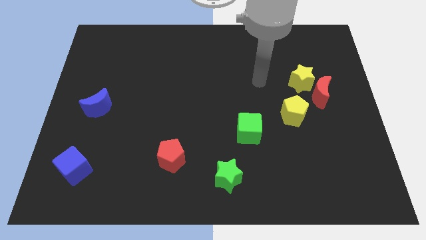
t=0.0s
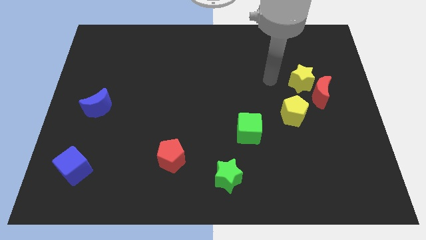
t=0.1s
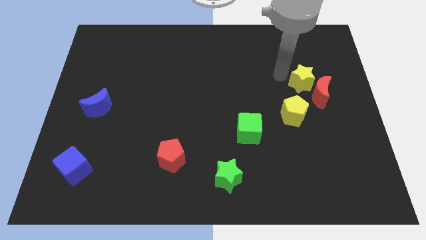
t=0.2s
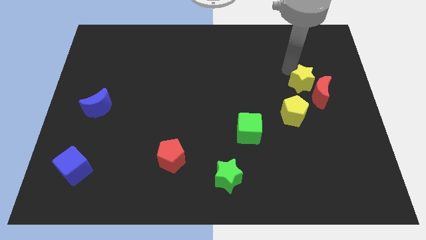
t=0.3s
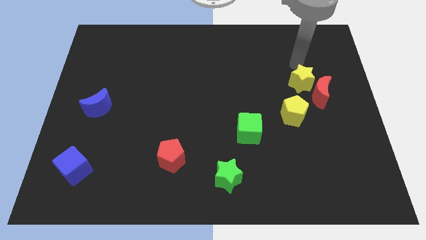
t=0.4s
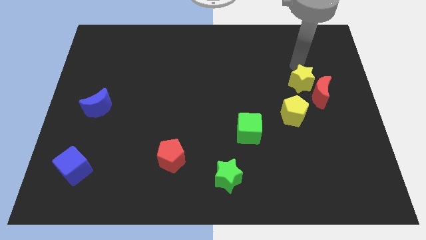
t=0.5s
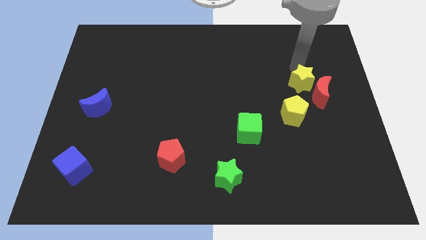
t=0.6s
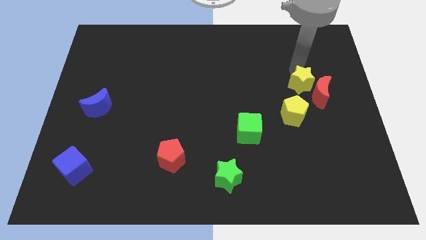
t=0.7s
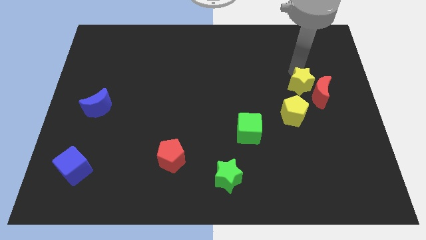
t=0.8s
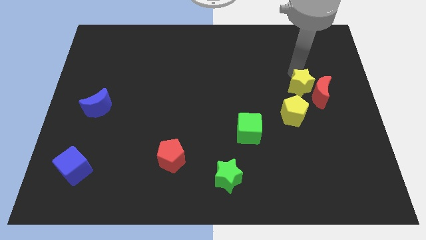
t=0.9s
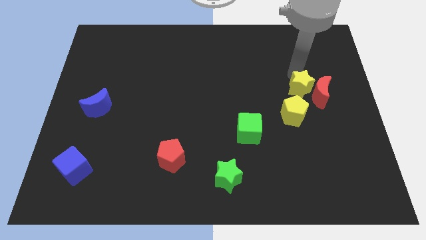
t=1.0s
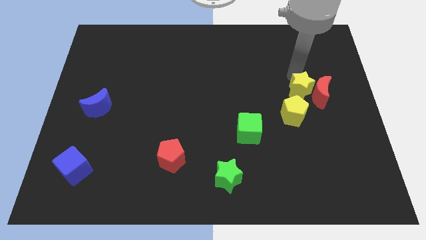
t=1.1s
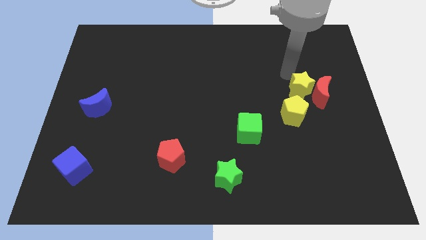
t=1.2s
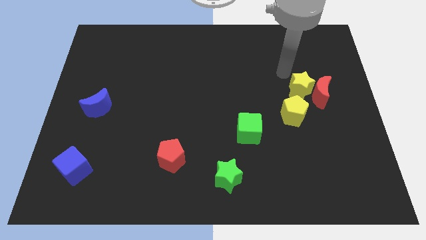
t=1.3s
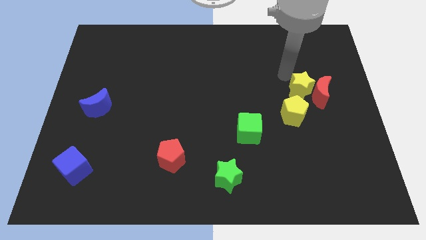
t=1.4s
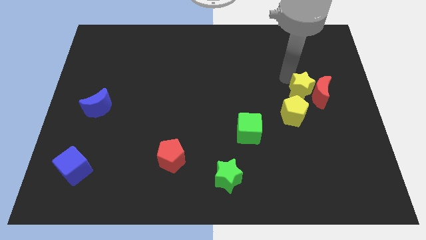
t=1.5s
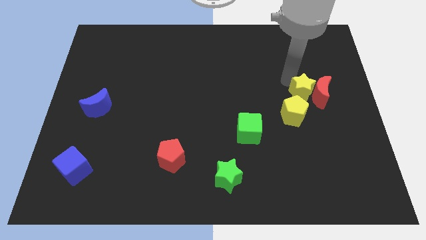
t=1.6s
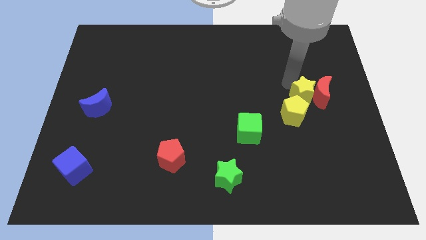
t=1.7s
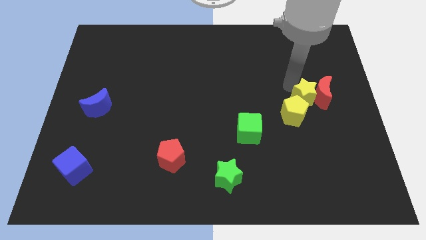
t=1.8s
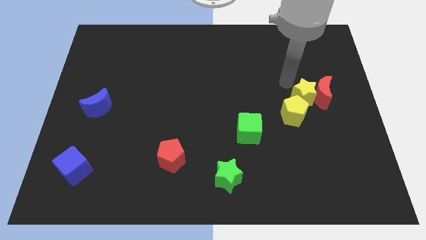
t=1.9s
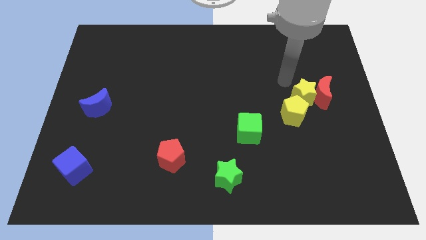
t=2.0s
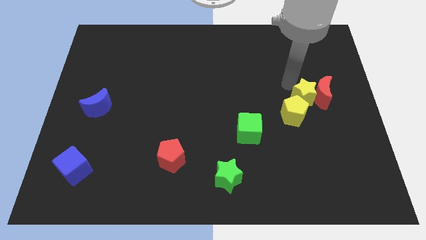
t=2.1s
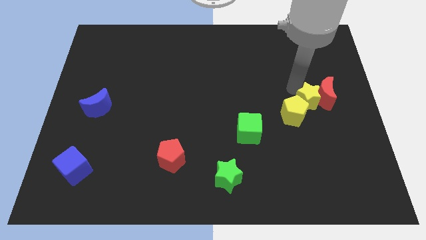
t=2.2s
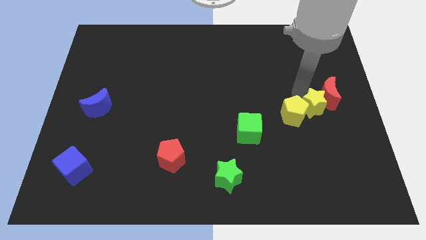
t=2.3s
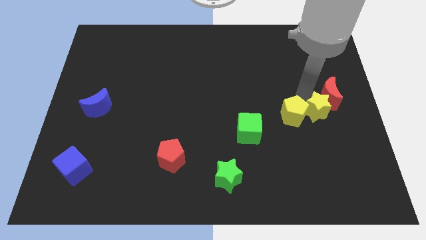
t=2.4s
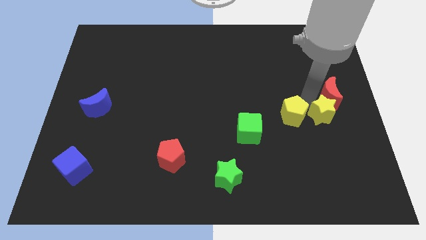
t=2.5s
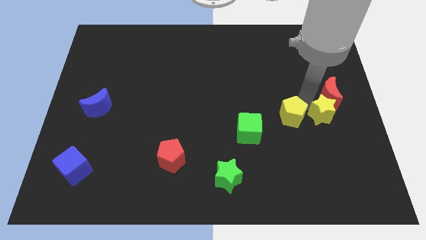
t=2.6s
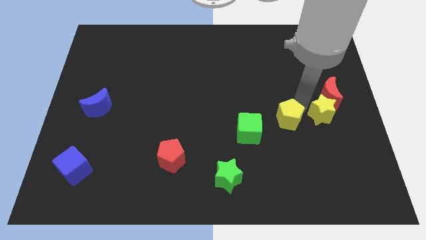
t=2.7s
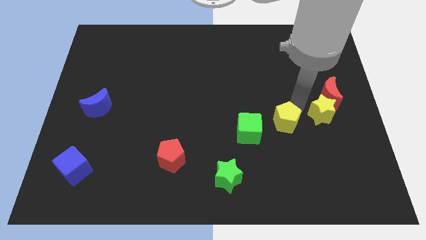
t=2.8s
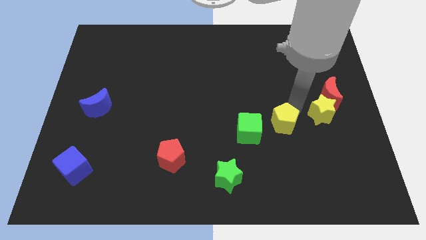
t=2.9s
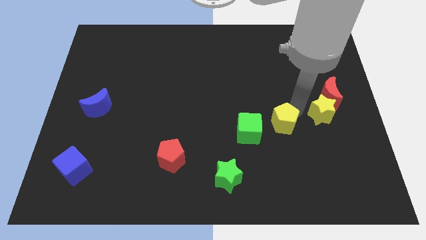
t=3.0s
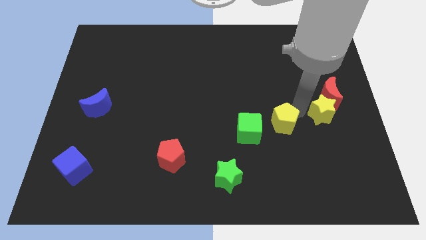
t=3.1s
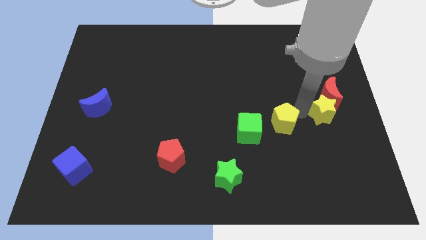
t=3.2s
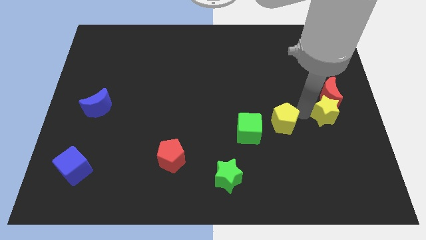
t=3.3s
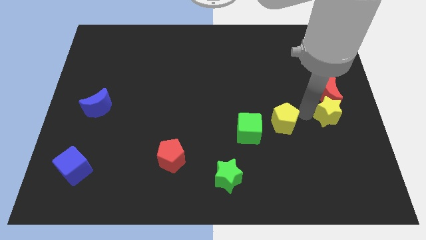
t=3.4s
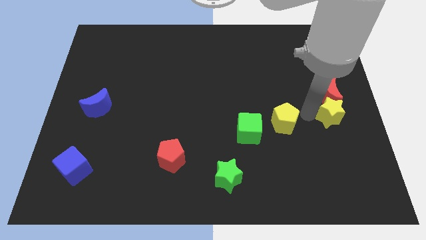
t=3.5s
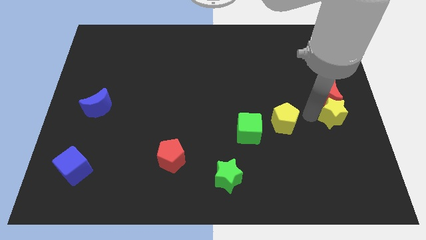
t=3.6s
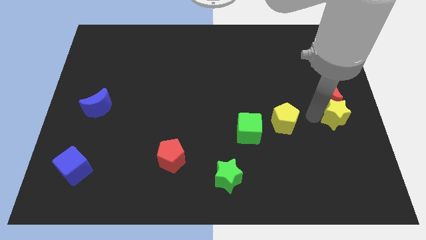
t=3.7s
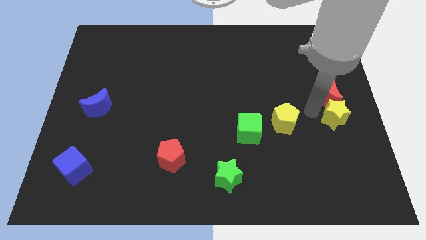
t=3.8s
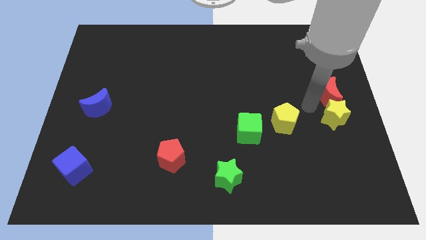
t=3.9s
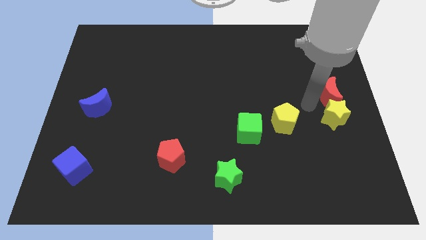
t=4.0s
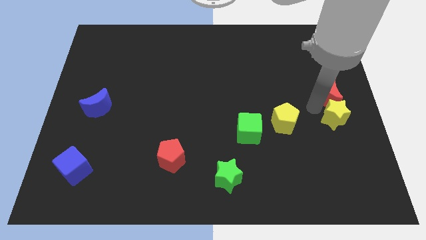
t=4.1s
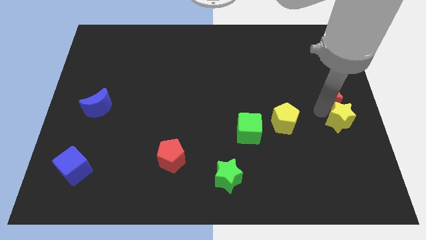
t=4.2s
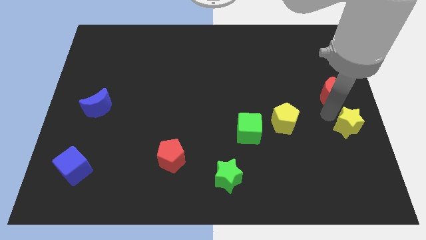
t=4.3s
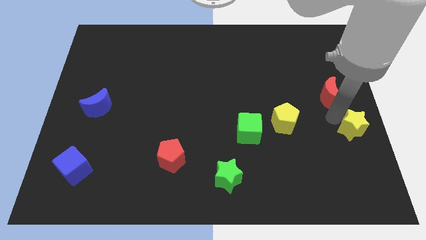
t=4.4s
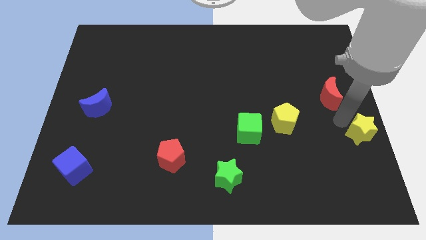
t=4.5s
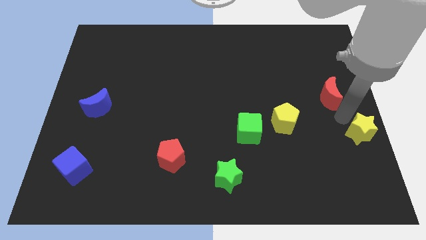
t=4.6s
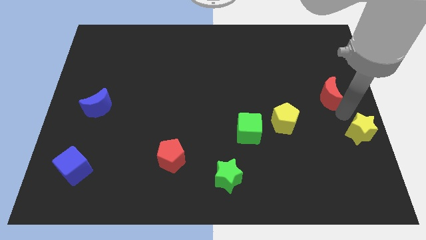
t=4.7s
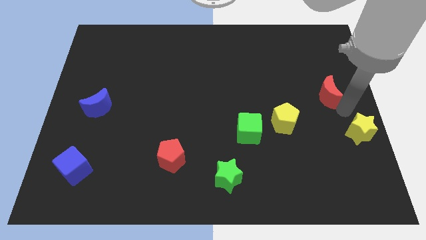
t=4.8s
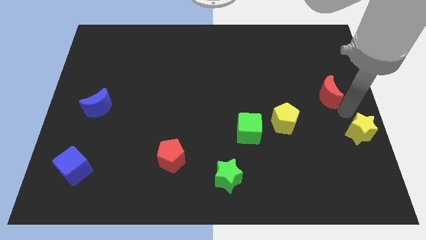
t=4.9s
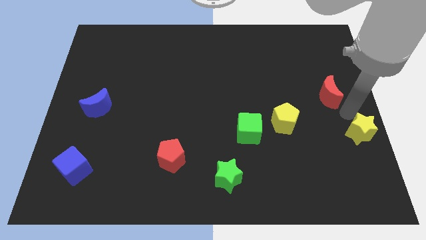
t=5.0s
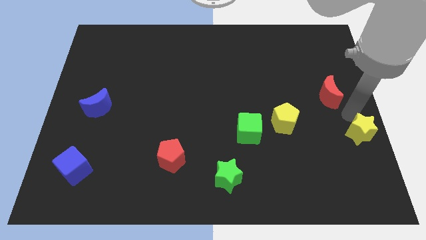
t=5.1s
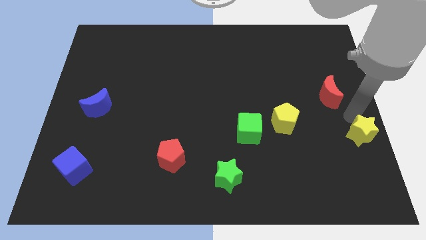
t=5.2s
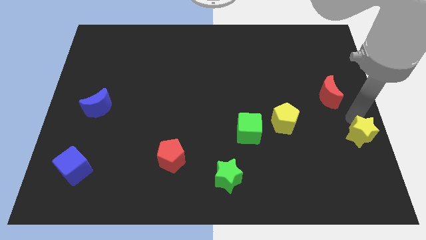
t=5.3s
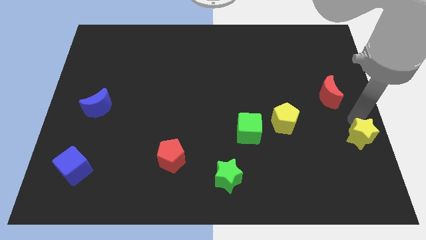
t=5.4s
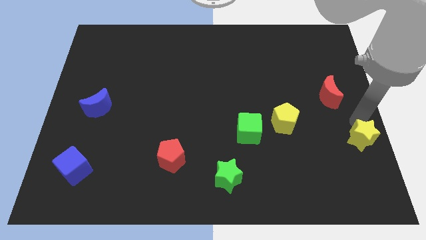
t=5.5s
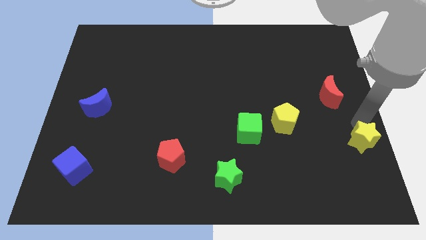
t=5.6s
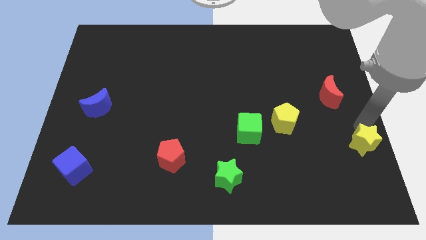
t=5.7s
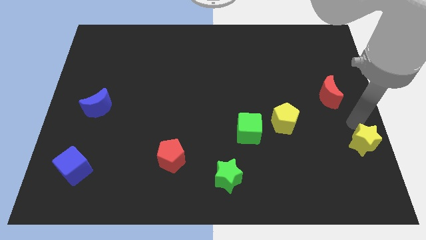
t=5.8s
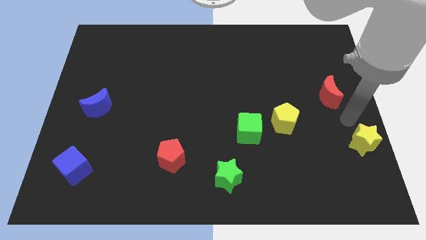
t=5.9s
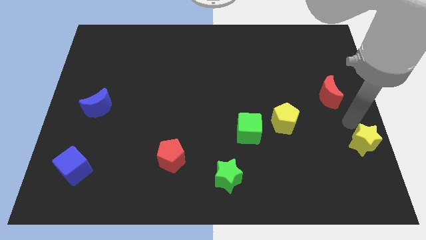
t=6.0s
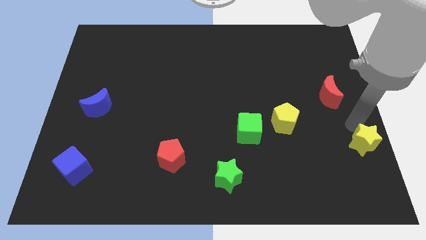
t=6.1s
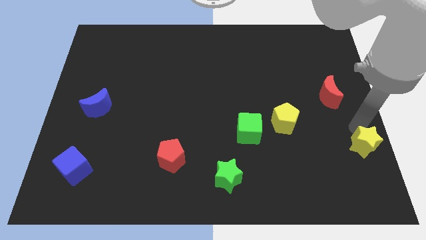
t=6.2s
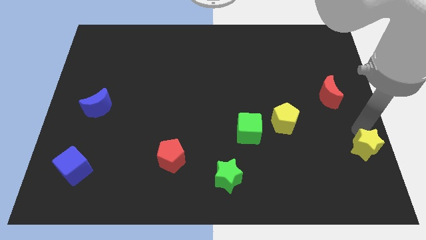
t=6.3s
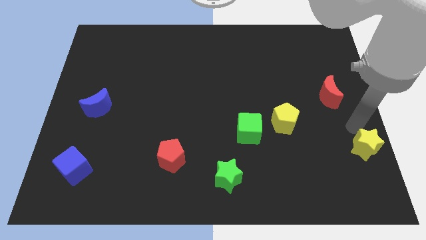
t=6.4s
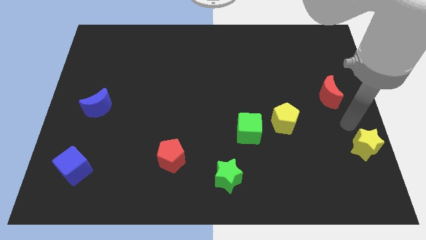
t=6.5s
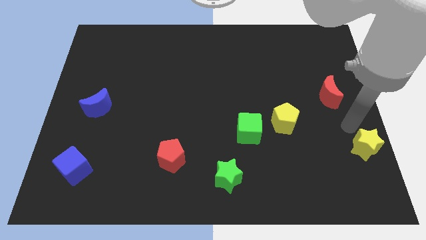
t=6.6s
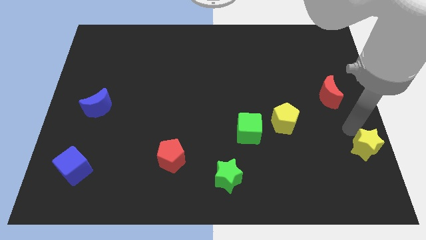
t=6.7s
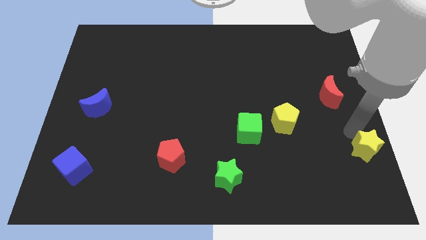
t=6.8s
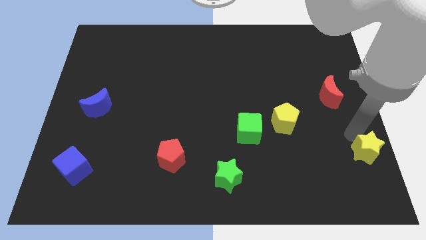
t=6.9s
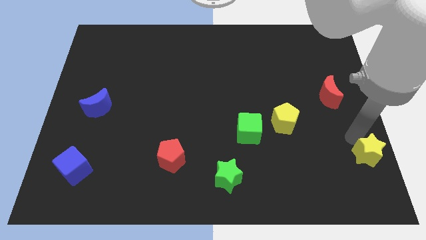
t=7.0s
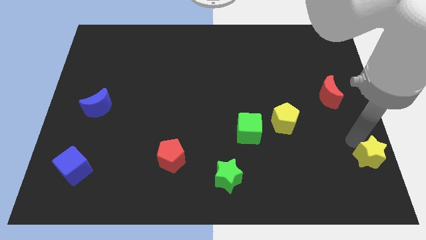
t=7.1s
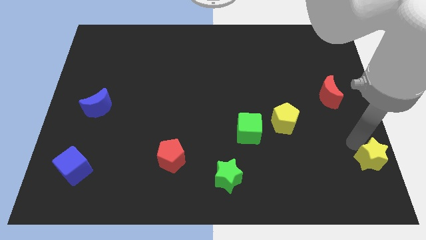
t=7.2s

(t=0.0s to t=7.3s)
slide the yellow star to the bottom right of the board

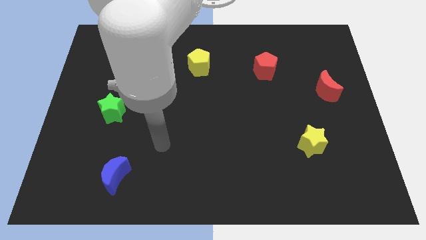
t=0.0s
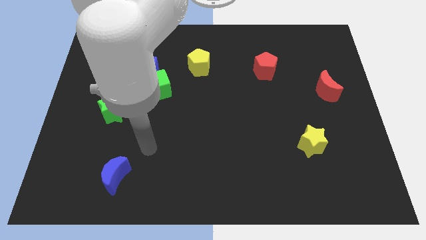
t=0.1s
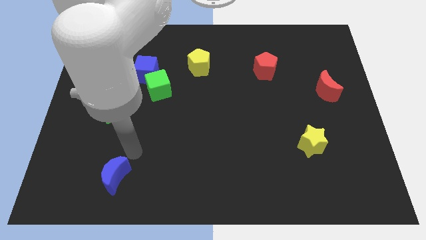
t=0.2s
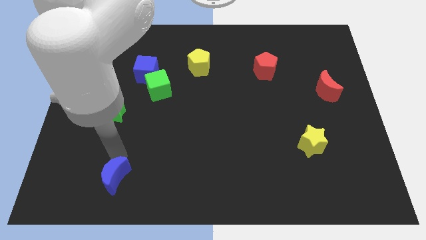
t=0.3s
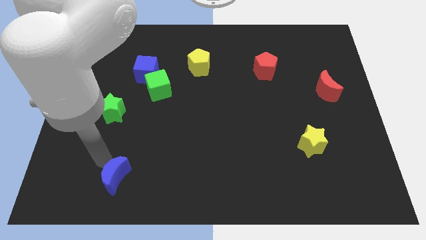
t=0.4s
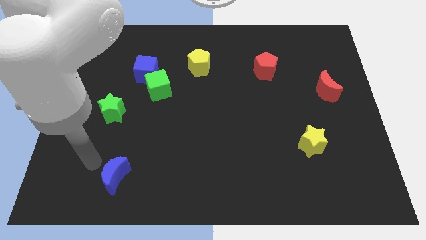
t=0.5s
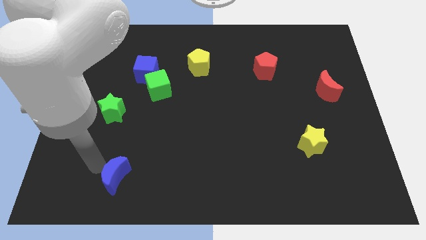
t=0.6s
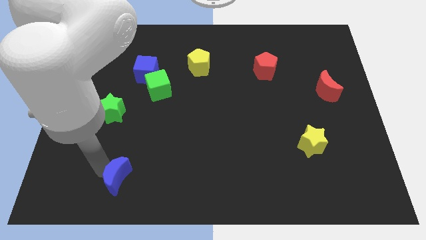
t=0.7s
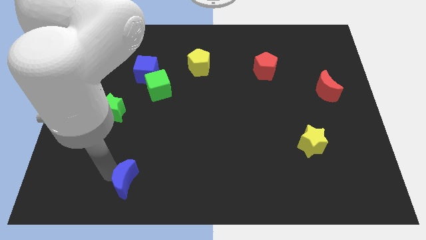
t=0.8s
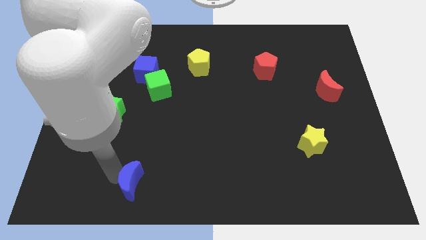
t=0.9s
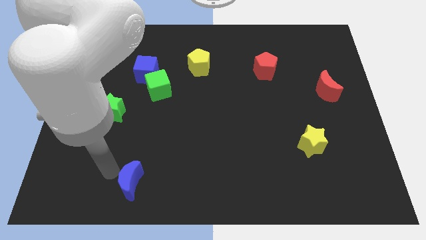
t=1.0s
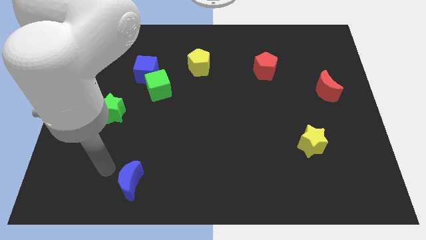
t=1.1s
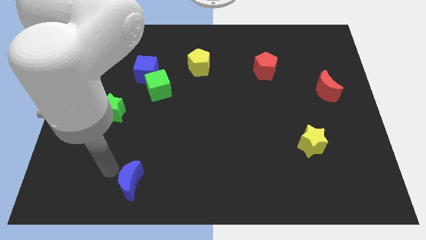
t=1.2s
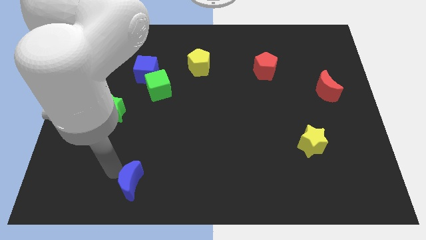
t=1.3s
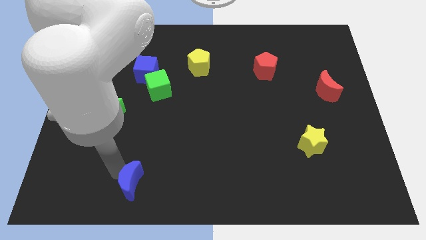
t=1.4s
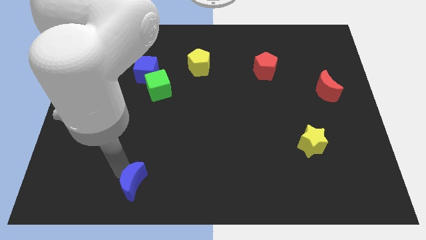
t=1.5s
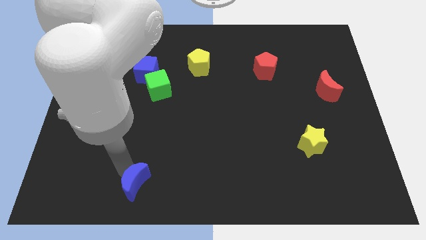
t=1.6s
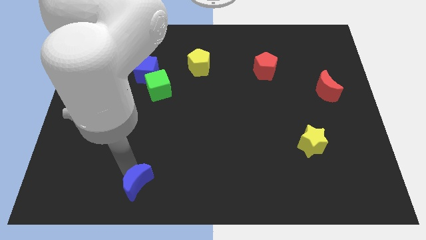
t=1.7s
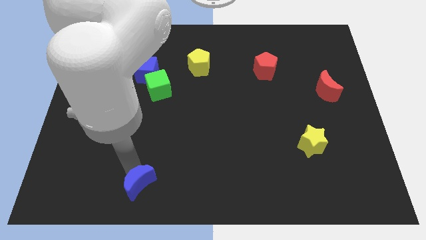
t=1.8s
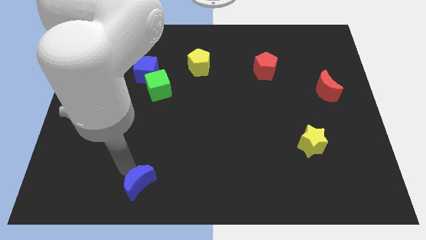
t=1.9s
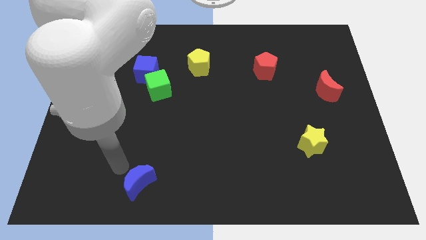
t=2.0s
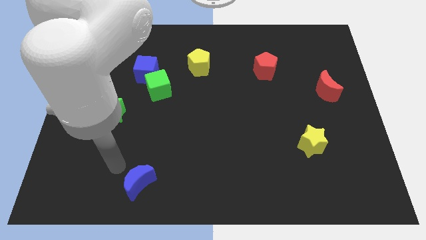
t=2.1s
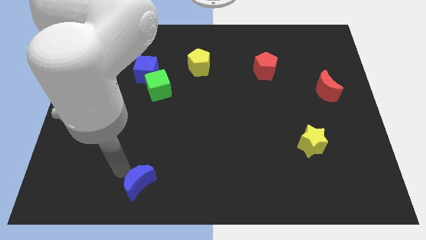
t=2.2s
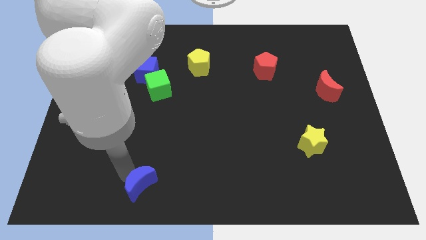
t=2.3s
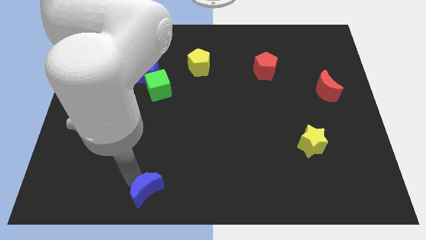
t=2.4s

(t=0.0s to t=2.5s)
push the blue moon to the bottom side
